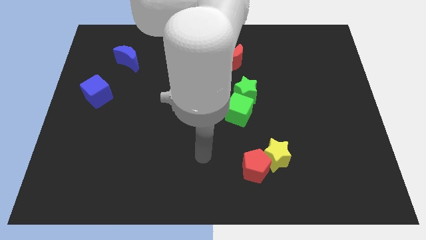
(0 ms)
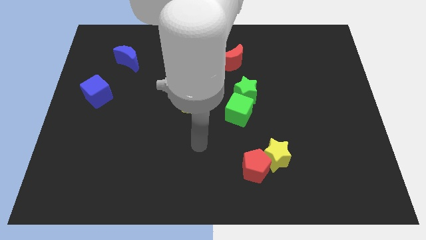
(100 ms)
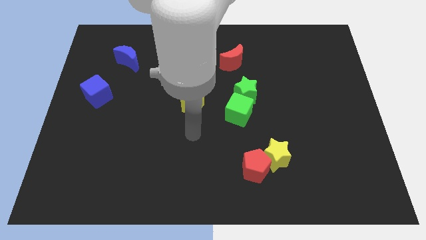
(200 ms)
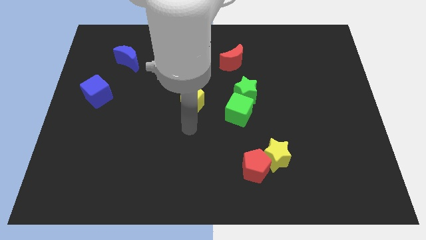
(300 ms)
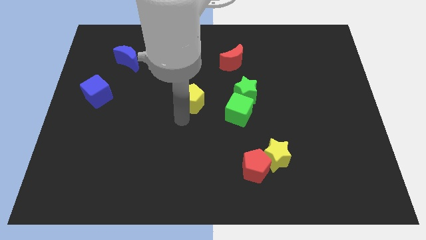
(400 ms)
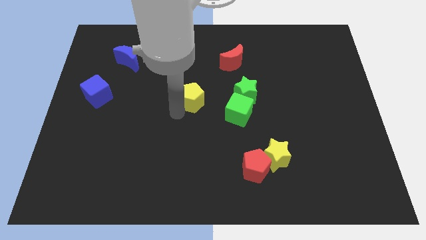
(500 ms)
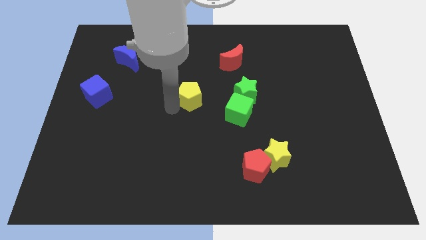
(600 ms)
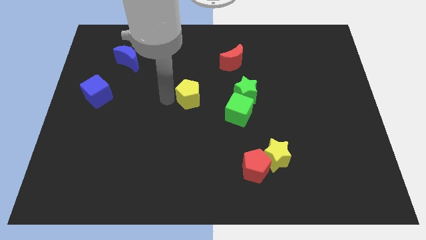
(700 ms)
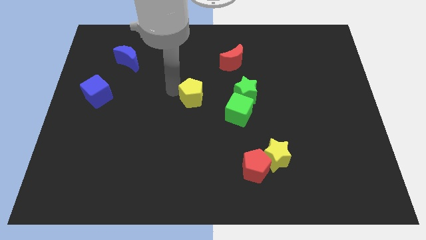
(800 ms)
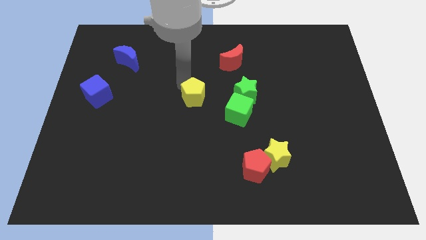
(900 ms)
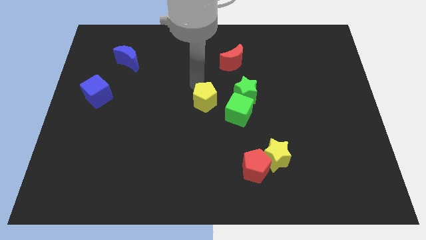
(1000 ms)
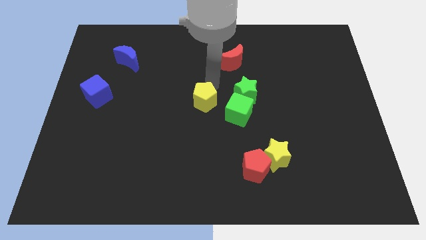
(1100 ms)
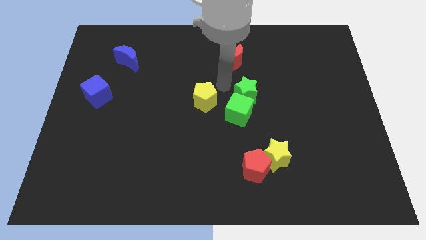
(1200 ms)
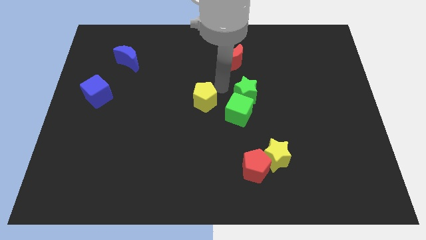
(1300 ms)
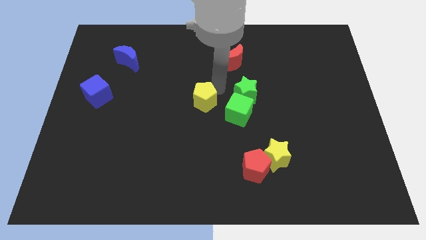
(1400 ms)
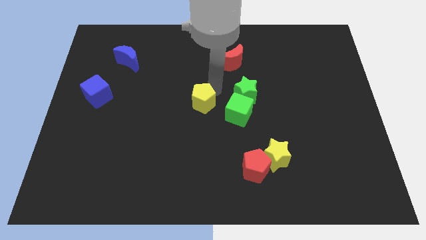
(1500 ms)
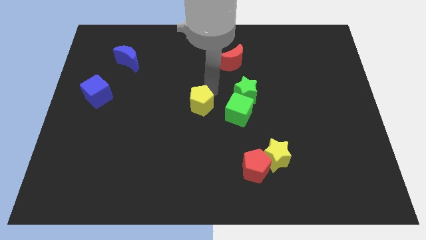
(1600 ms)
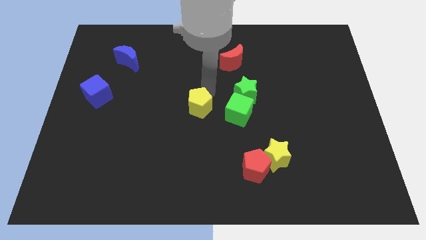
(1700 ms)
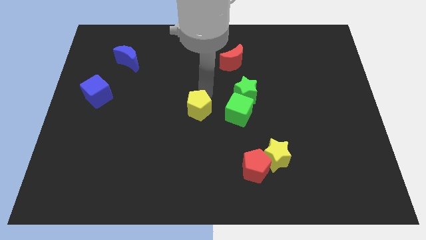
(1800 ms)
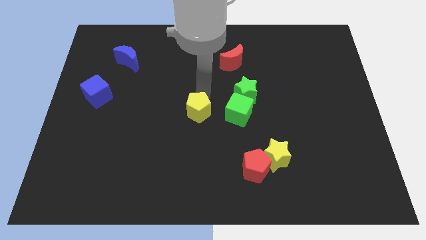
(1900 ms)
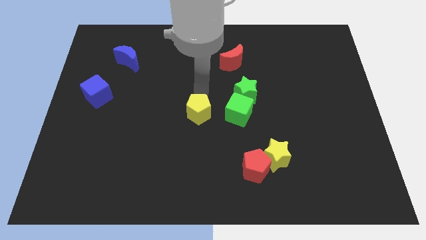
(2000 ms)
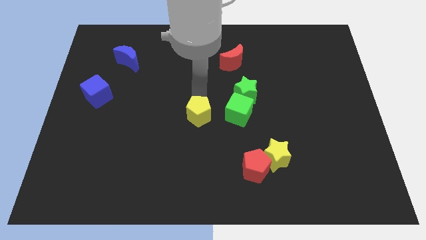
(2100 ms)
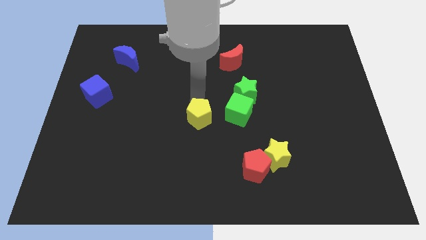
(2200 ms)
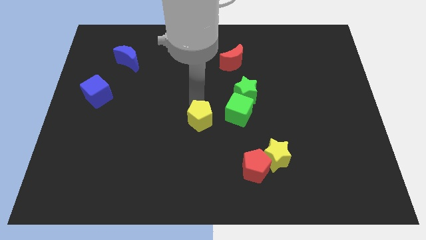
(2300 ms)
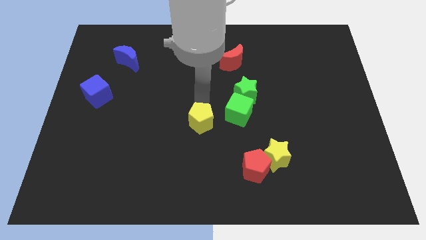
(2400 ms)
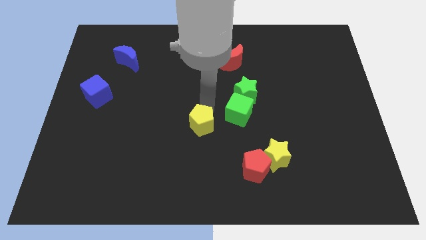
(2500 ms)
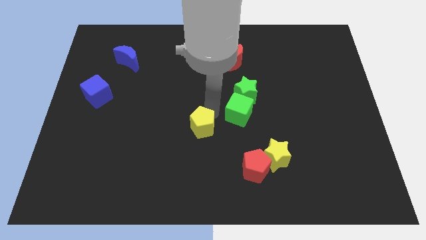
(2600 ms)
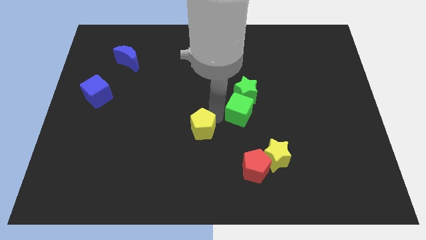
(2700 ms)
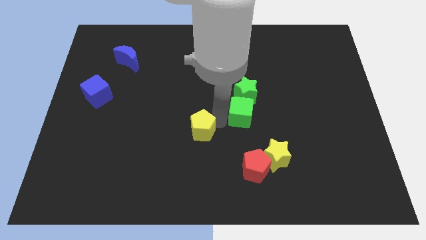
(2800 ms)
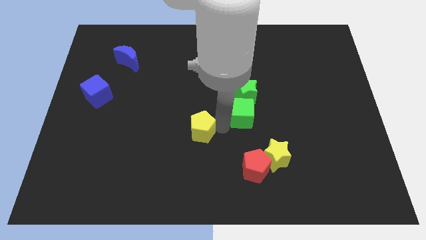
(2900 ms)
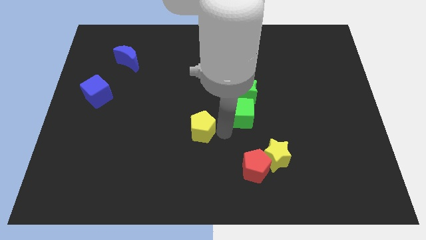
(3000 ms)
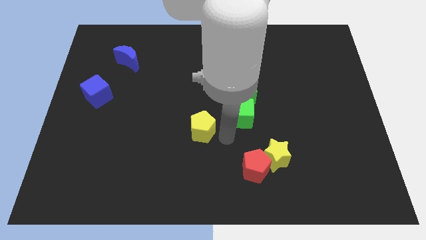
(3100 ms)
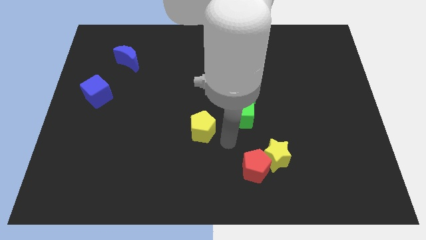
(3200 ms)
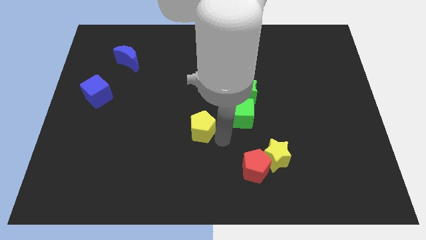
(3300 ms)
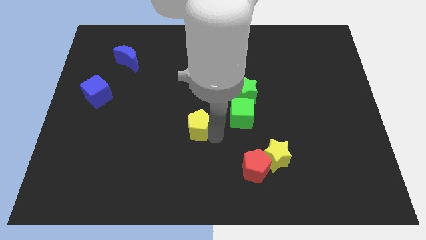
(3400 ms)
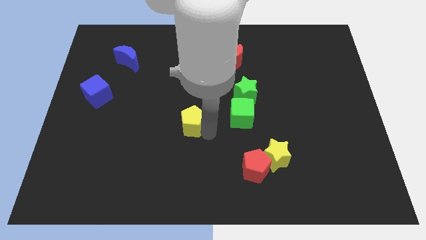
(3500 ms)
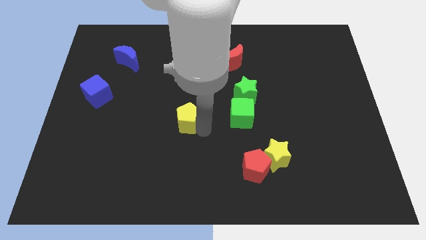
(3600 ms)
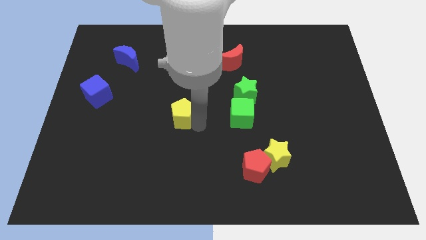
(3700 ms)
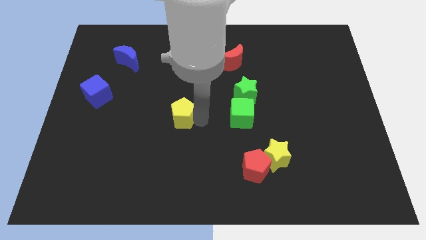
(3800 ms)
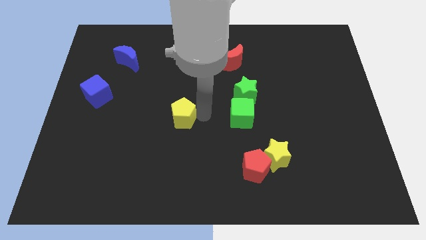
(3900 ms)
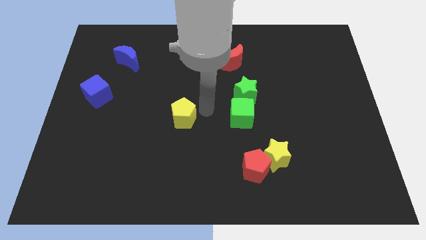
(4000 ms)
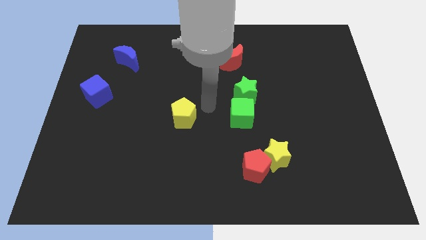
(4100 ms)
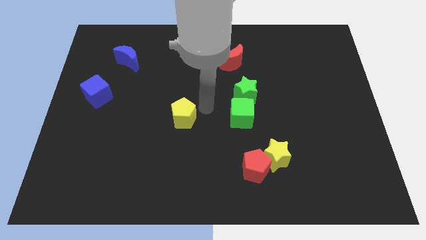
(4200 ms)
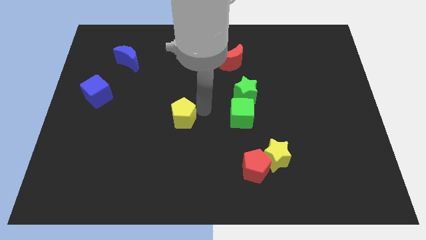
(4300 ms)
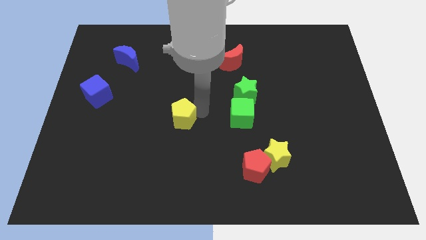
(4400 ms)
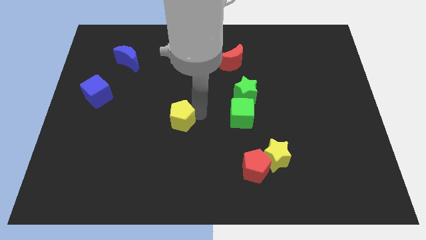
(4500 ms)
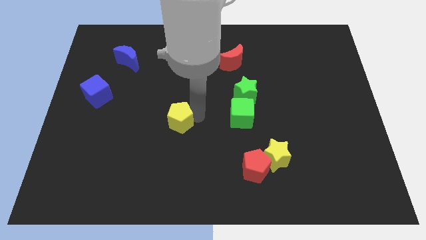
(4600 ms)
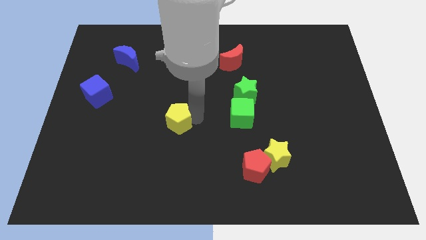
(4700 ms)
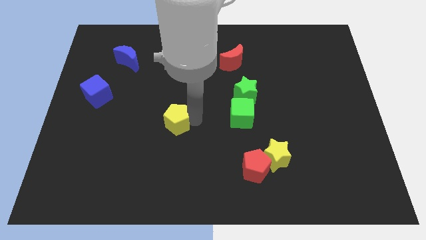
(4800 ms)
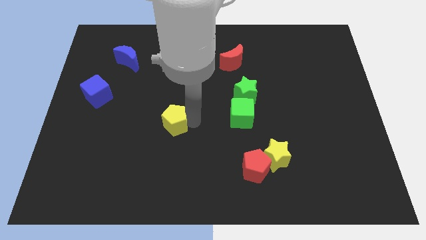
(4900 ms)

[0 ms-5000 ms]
move the yellow pentagon down and left a little

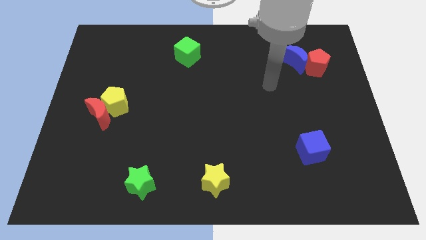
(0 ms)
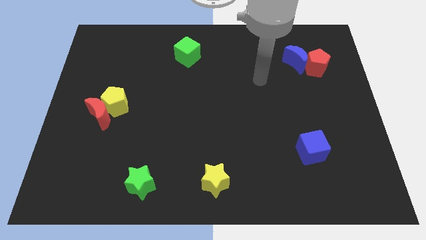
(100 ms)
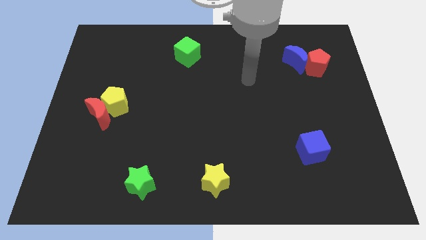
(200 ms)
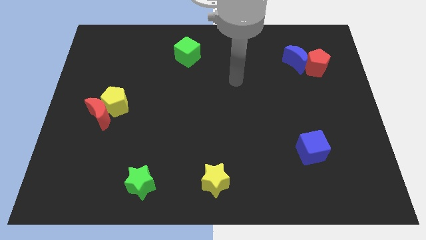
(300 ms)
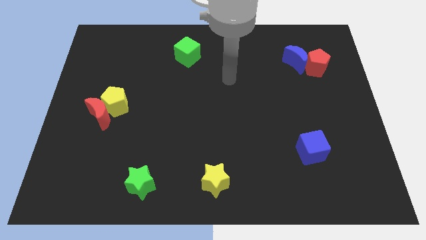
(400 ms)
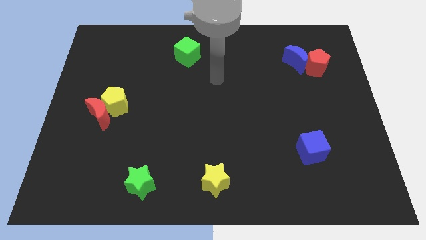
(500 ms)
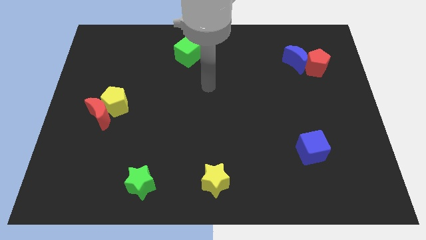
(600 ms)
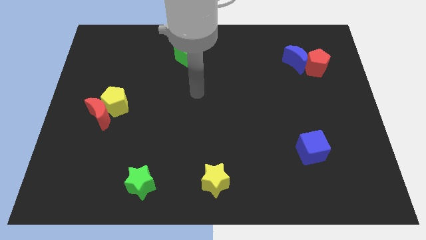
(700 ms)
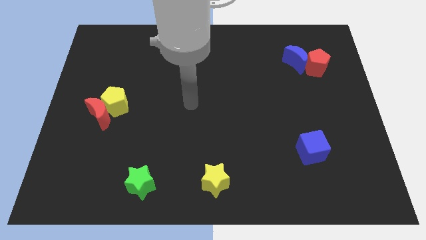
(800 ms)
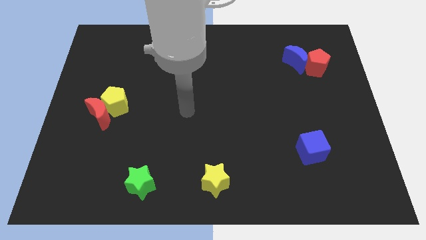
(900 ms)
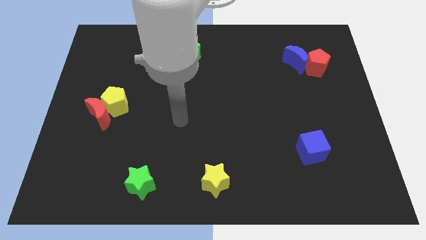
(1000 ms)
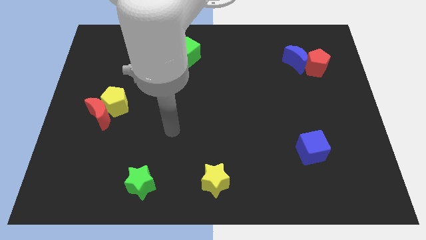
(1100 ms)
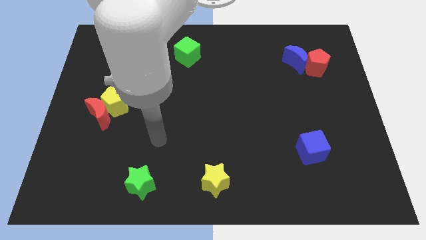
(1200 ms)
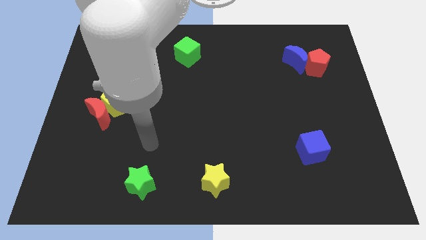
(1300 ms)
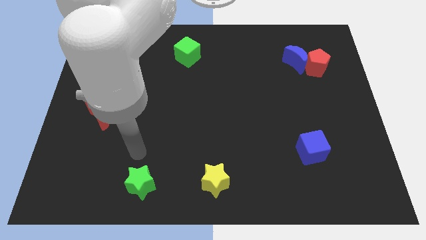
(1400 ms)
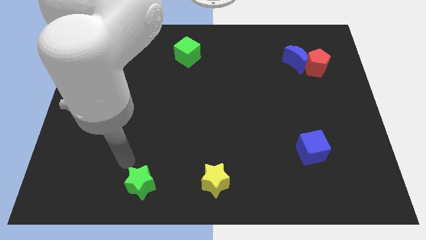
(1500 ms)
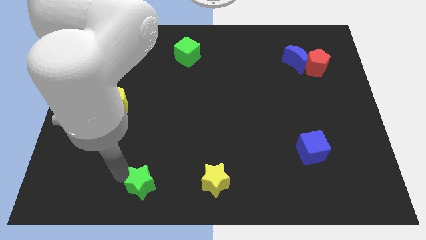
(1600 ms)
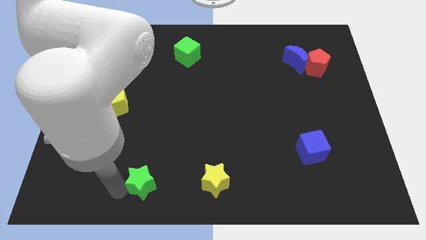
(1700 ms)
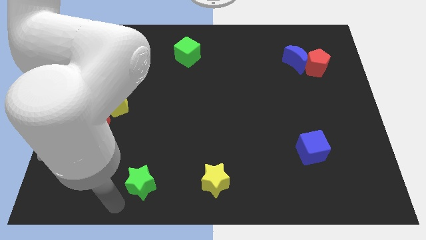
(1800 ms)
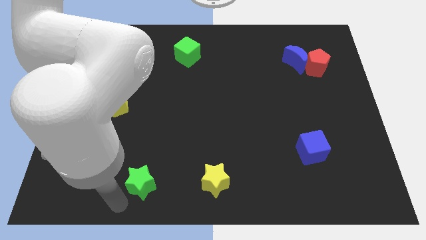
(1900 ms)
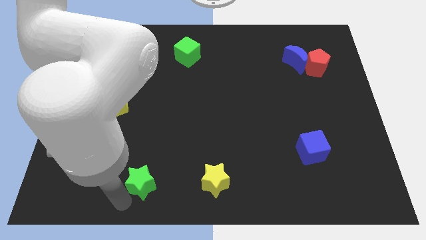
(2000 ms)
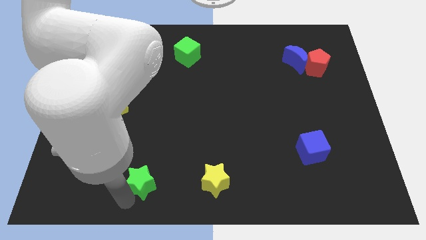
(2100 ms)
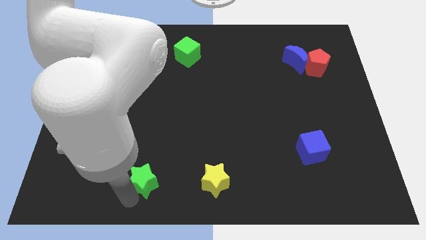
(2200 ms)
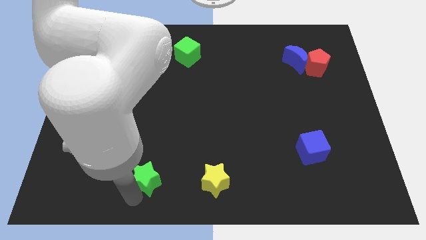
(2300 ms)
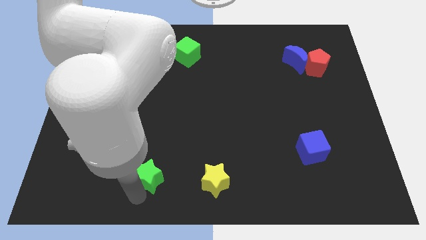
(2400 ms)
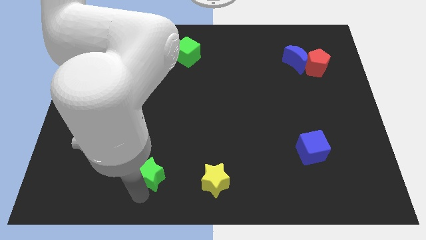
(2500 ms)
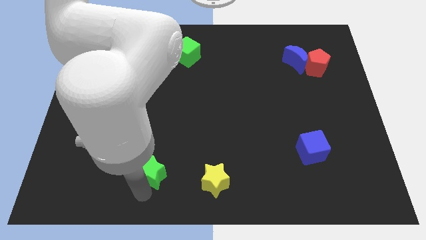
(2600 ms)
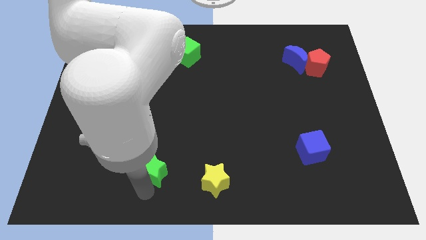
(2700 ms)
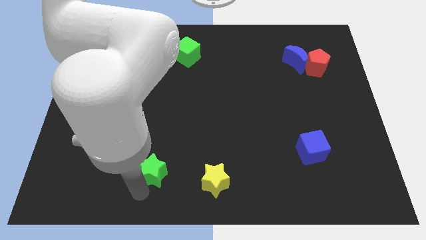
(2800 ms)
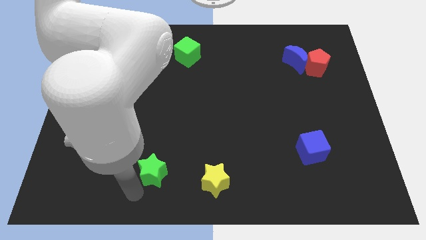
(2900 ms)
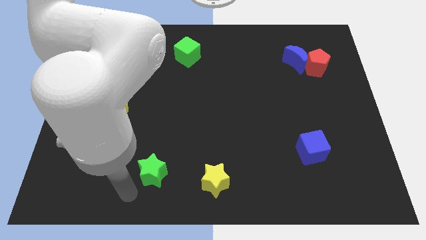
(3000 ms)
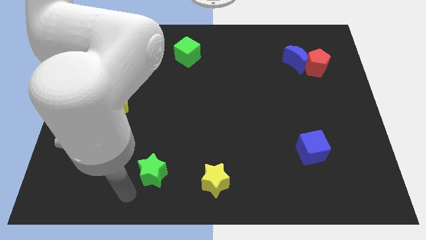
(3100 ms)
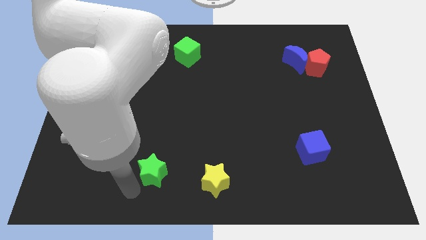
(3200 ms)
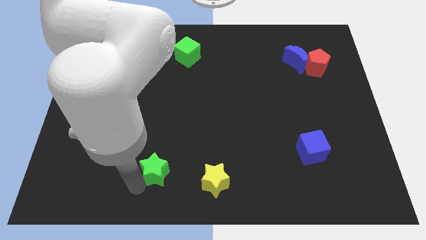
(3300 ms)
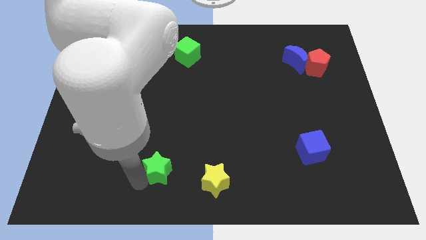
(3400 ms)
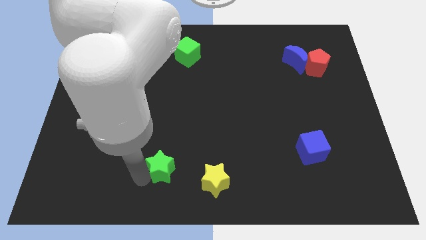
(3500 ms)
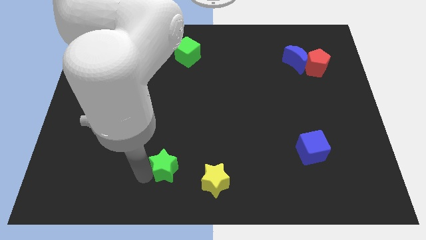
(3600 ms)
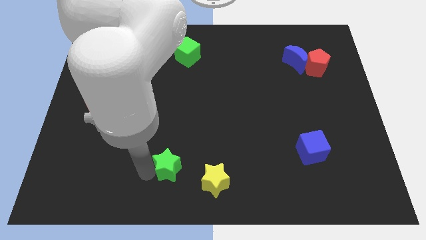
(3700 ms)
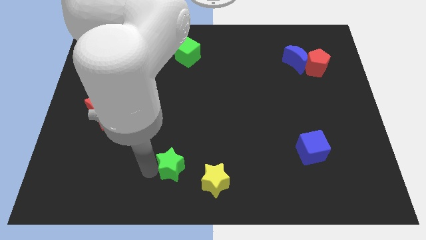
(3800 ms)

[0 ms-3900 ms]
push the green star upwards and to the right a little bit
